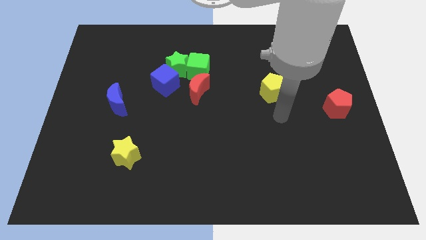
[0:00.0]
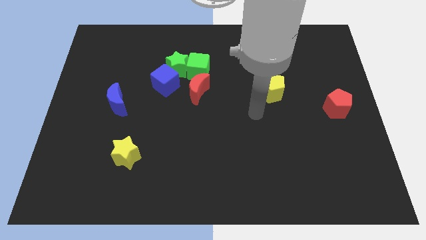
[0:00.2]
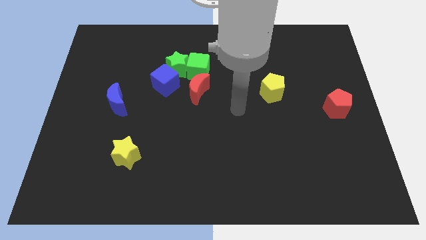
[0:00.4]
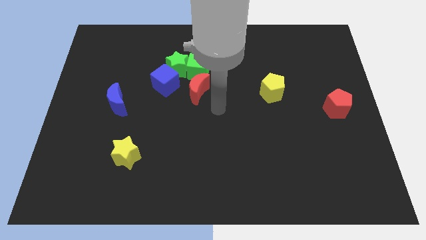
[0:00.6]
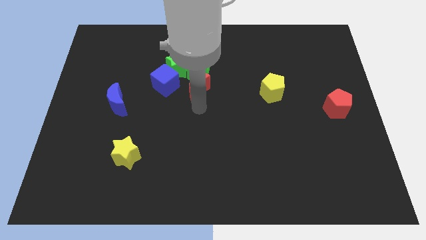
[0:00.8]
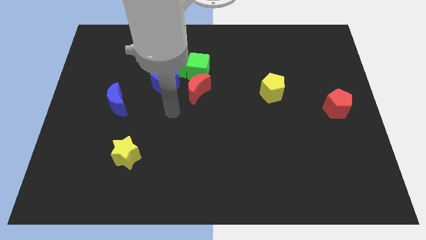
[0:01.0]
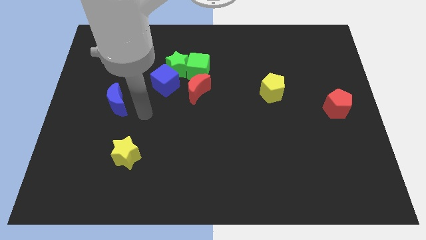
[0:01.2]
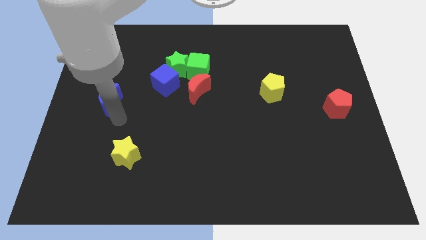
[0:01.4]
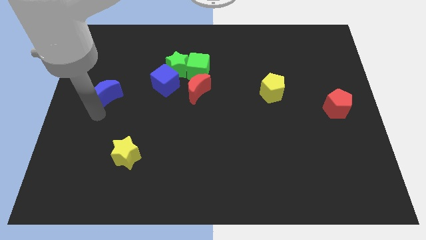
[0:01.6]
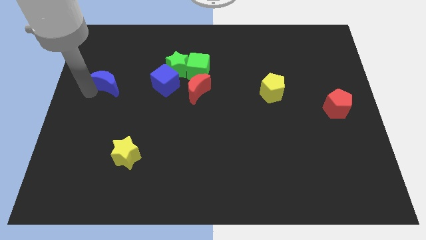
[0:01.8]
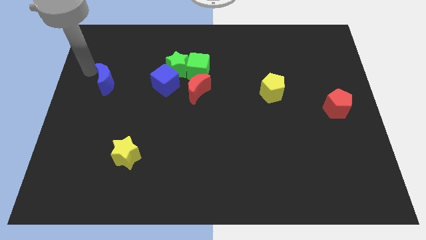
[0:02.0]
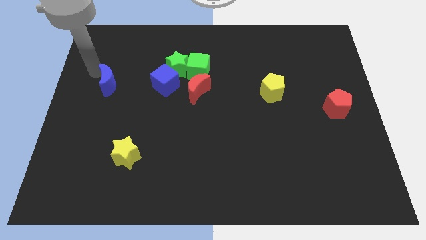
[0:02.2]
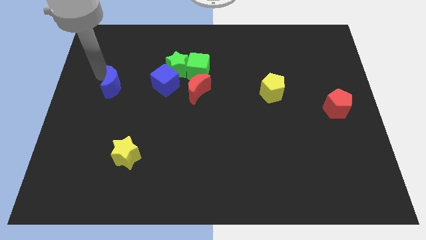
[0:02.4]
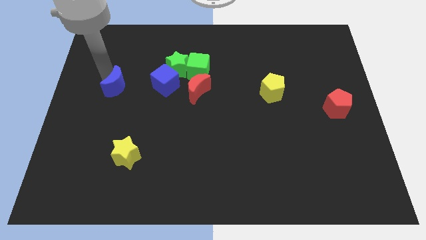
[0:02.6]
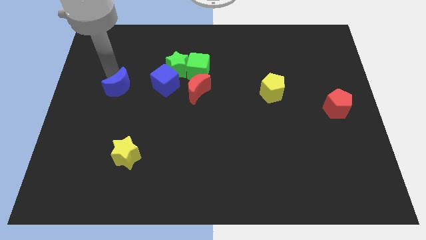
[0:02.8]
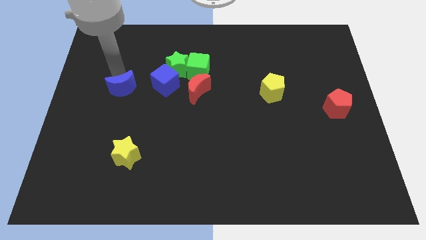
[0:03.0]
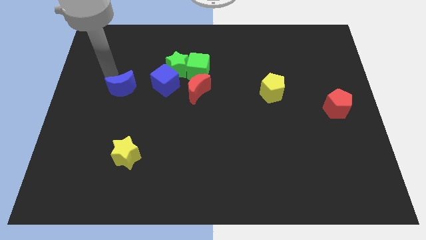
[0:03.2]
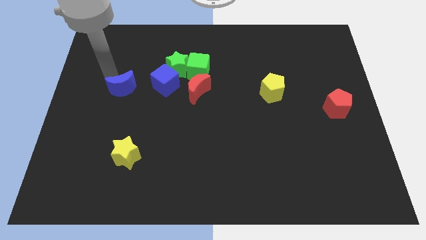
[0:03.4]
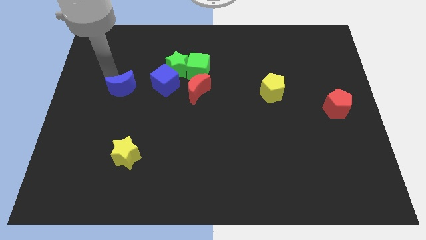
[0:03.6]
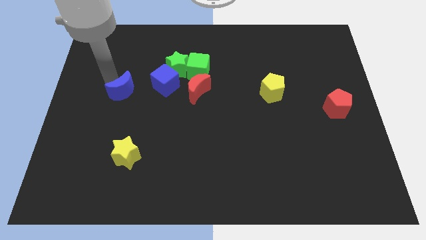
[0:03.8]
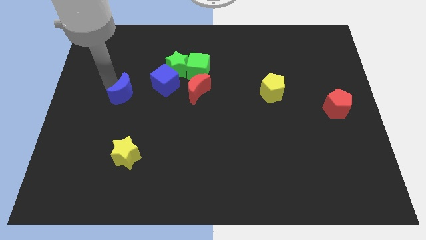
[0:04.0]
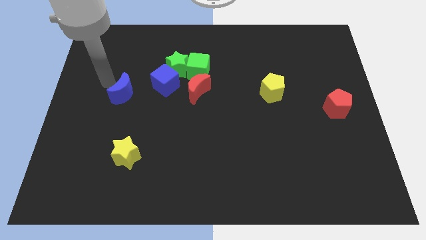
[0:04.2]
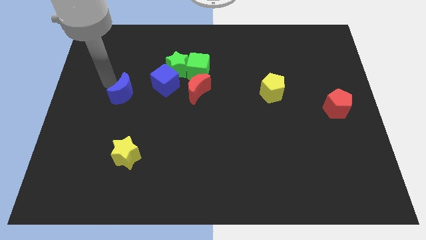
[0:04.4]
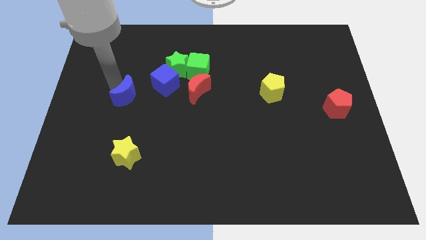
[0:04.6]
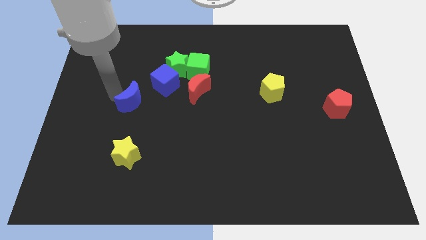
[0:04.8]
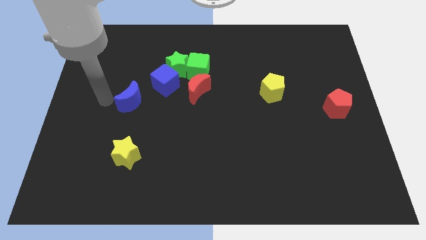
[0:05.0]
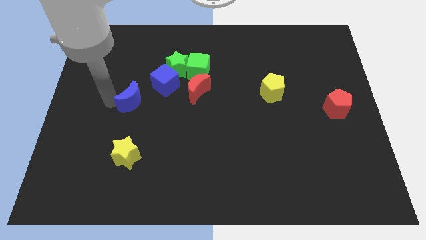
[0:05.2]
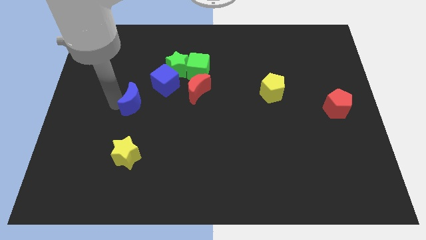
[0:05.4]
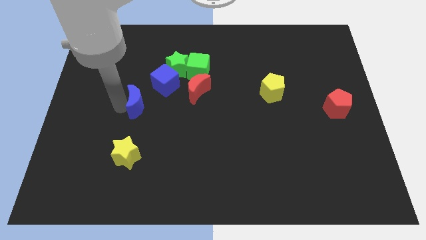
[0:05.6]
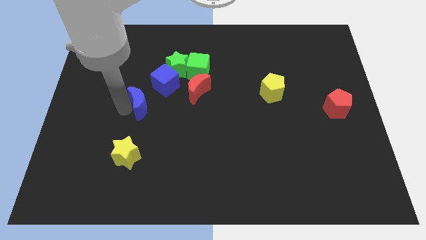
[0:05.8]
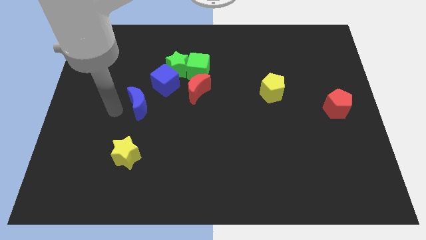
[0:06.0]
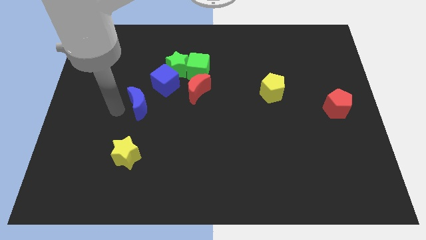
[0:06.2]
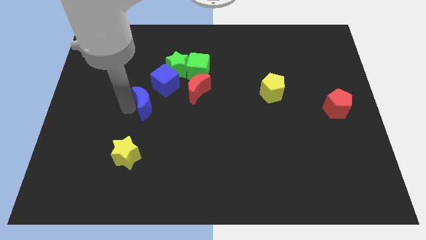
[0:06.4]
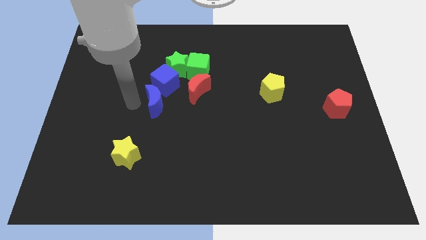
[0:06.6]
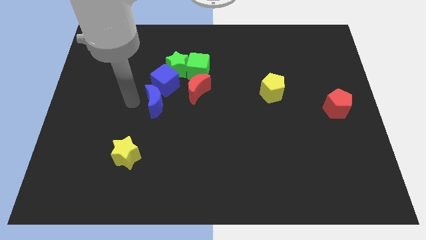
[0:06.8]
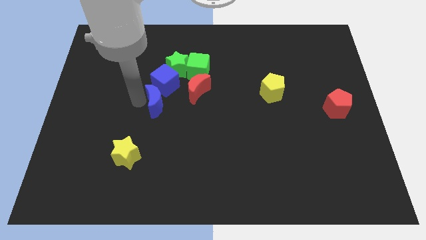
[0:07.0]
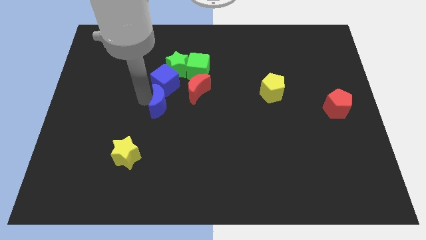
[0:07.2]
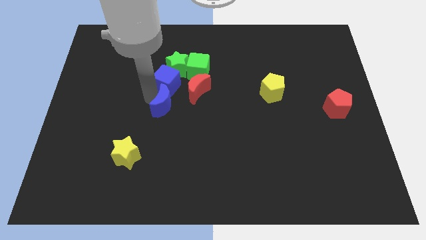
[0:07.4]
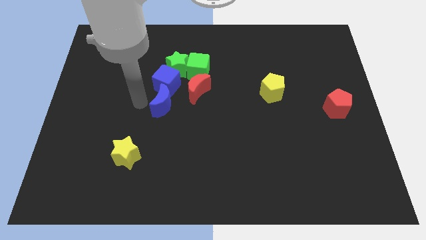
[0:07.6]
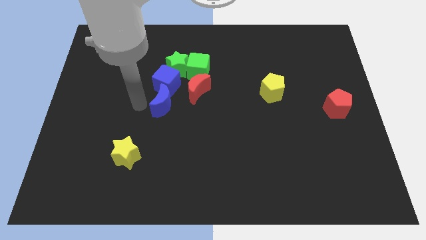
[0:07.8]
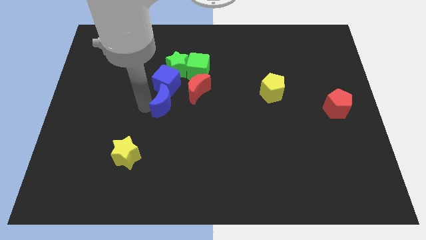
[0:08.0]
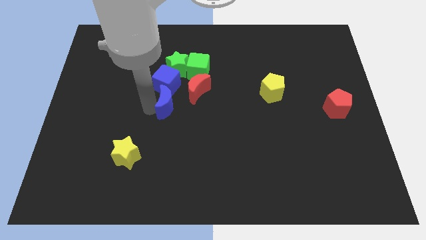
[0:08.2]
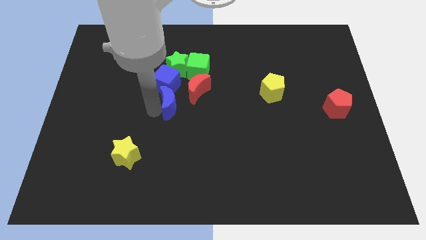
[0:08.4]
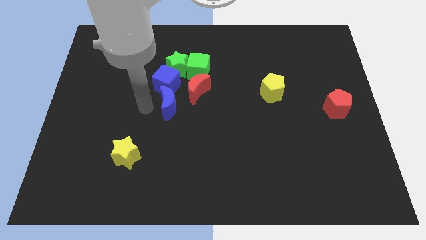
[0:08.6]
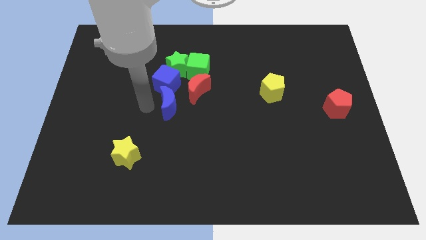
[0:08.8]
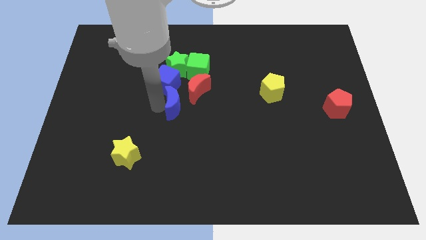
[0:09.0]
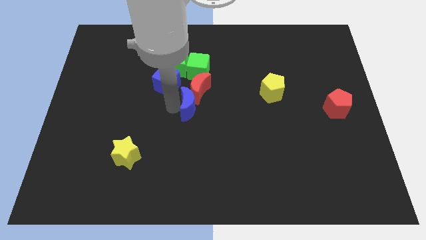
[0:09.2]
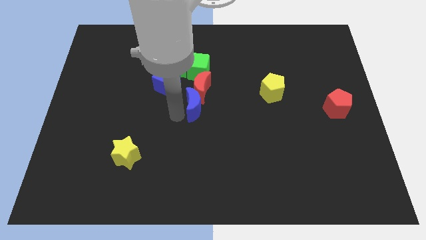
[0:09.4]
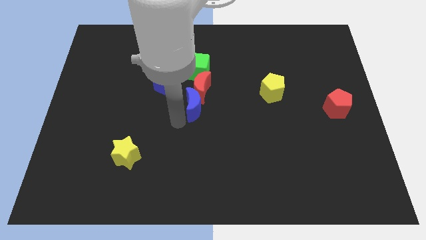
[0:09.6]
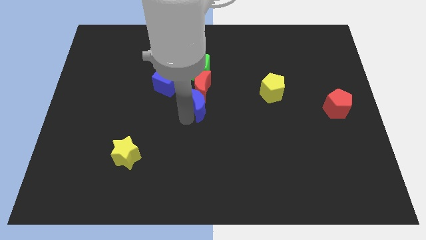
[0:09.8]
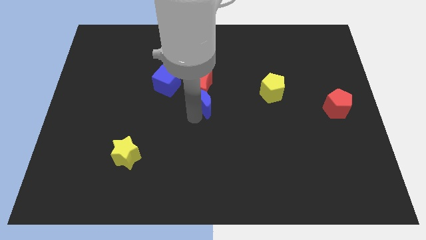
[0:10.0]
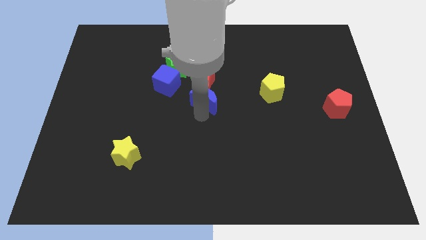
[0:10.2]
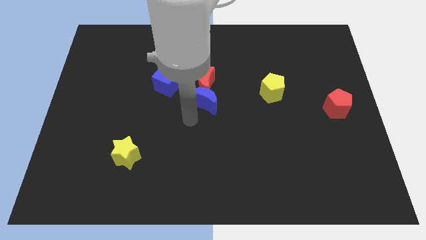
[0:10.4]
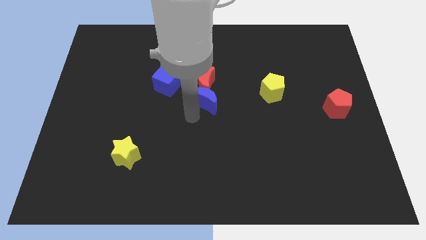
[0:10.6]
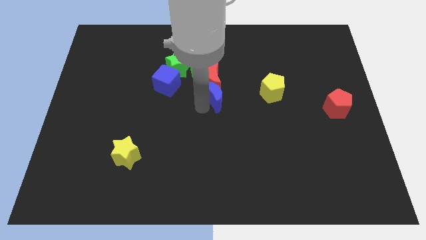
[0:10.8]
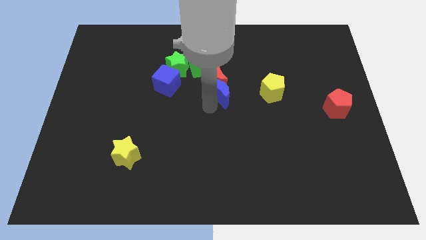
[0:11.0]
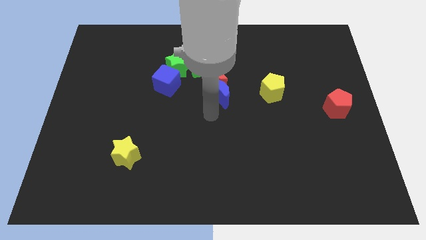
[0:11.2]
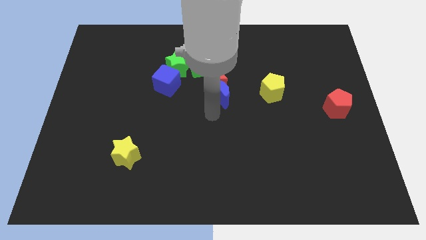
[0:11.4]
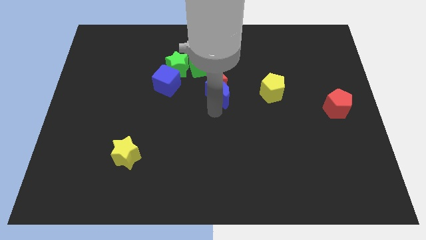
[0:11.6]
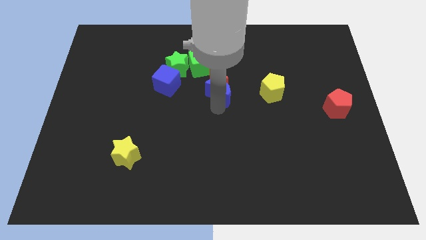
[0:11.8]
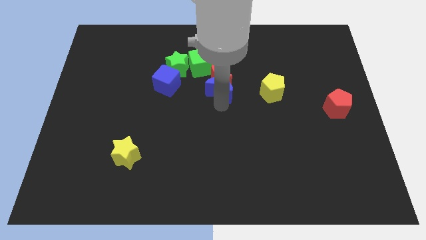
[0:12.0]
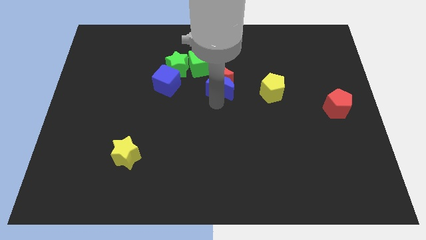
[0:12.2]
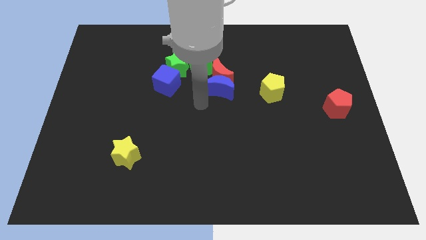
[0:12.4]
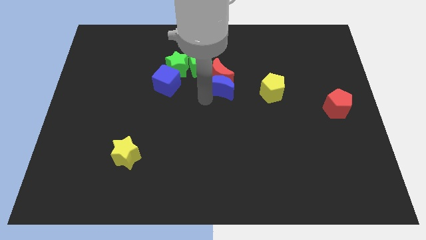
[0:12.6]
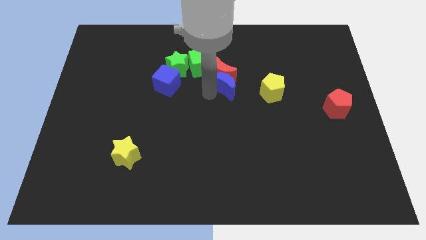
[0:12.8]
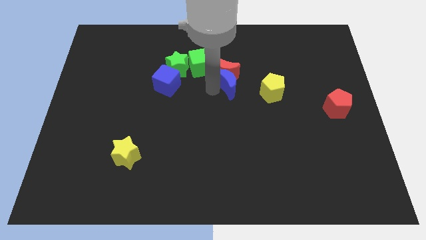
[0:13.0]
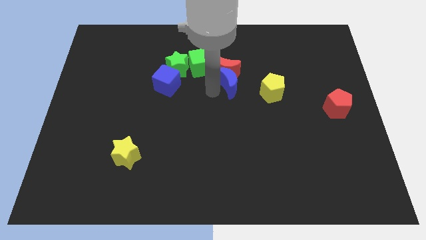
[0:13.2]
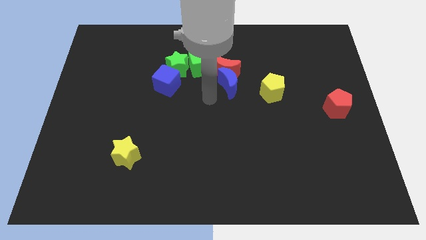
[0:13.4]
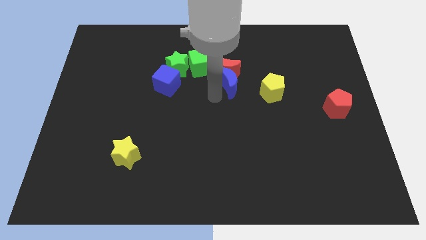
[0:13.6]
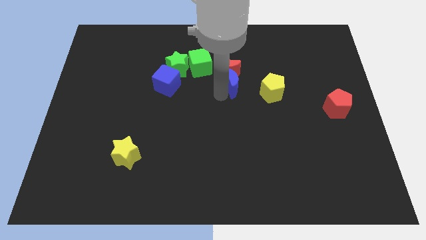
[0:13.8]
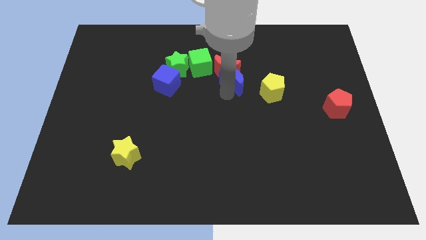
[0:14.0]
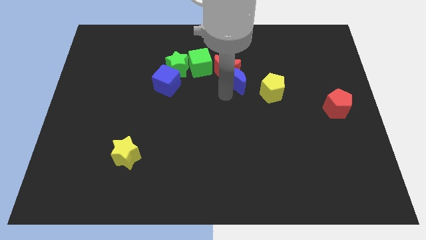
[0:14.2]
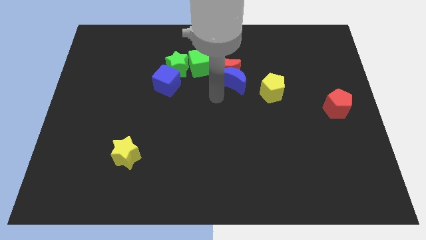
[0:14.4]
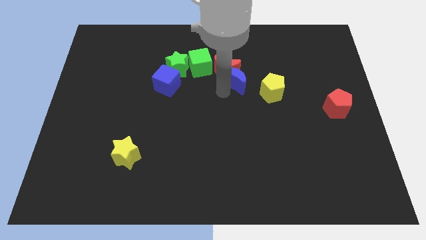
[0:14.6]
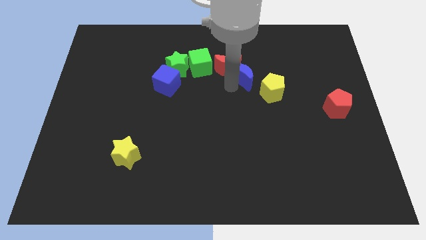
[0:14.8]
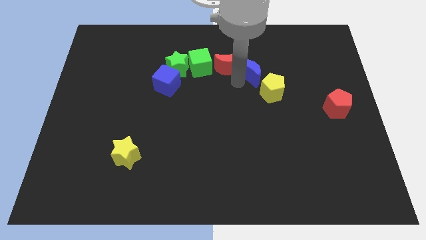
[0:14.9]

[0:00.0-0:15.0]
move the blue moon to the top side of the yellow pentagon
